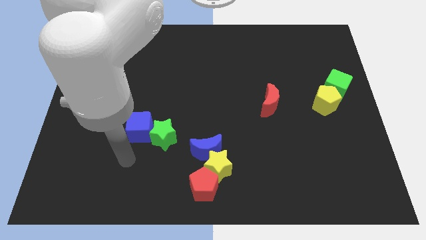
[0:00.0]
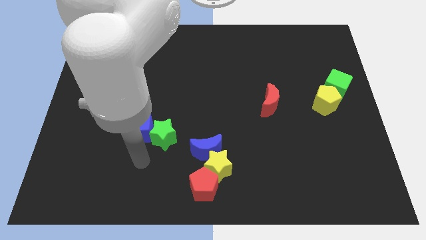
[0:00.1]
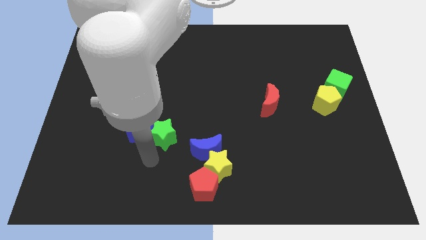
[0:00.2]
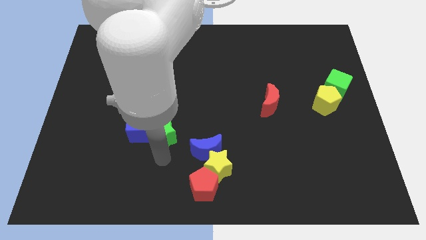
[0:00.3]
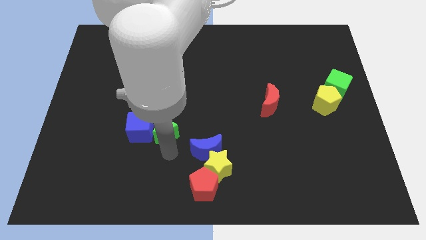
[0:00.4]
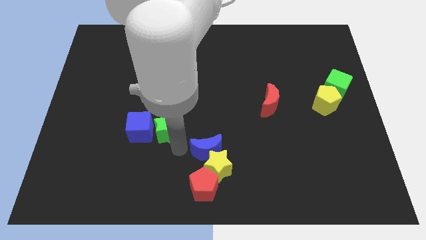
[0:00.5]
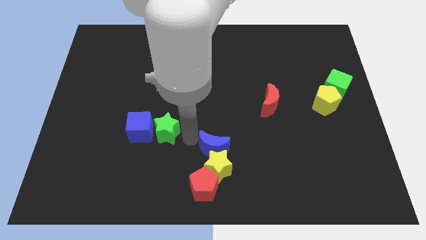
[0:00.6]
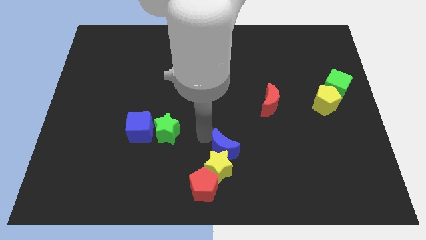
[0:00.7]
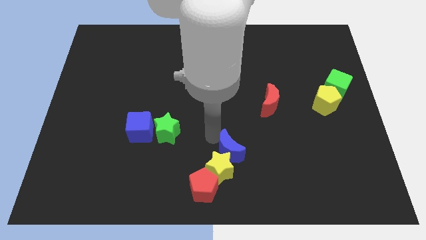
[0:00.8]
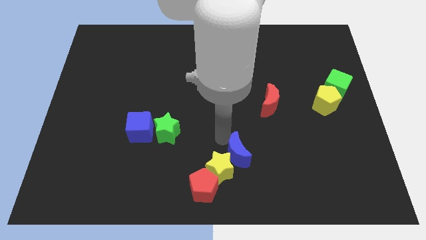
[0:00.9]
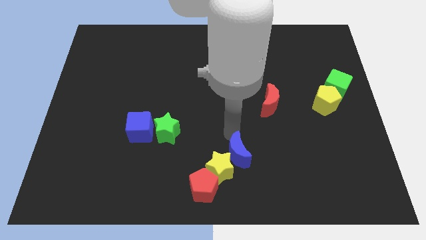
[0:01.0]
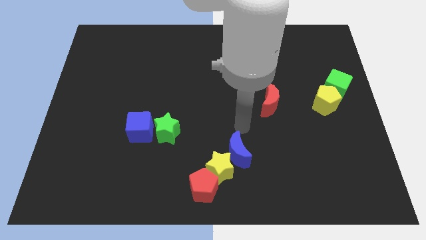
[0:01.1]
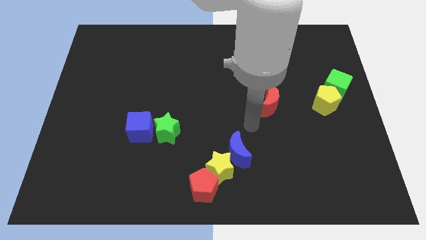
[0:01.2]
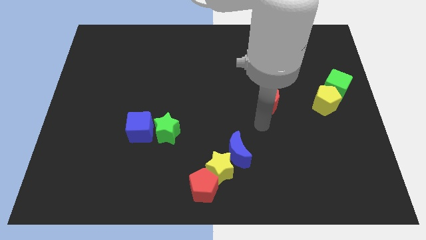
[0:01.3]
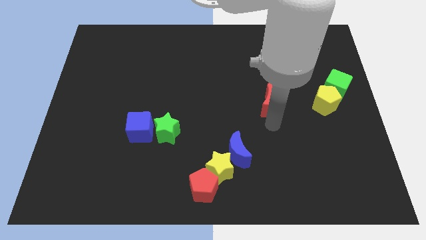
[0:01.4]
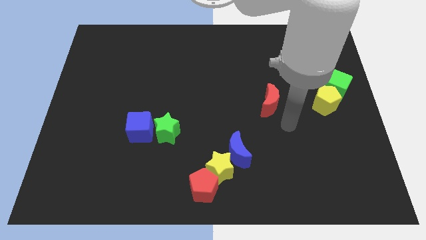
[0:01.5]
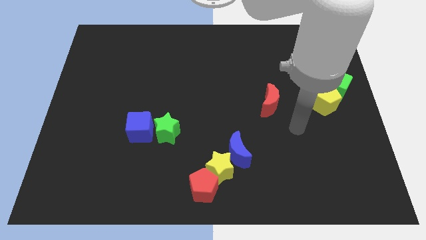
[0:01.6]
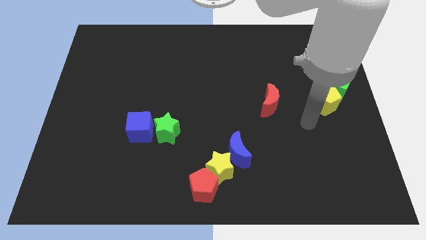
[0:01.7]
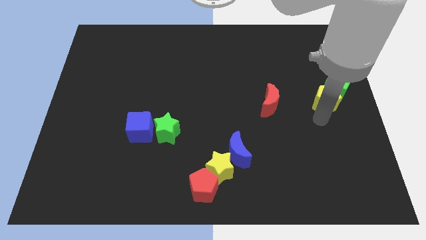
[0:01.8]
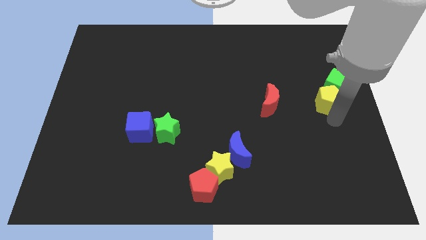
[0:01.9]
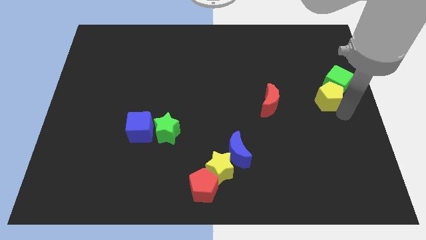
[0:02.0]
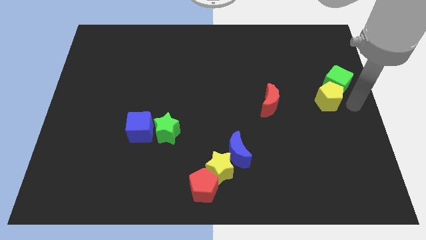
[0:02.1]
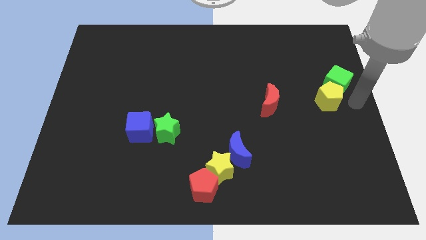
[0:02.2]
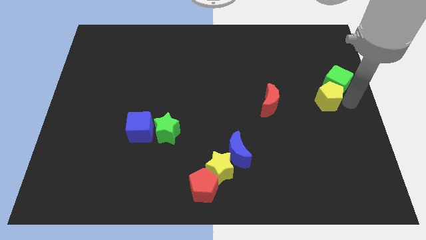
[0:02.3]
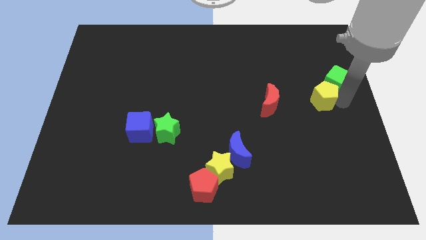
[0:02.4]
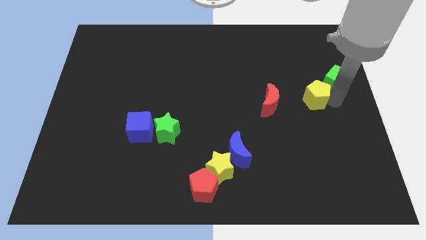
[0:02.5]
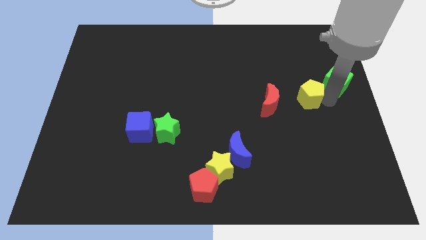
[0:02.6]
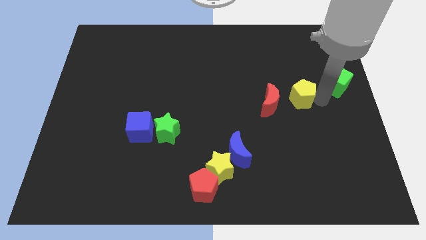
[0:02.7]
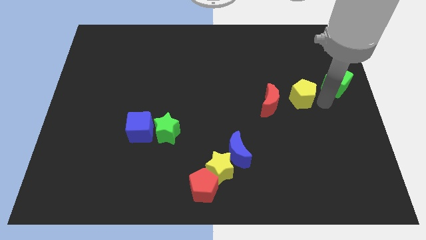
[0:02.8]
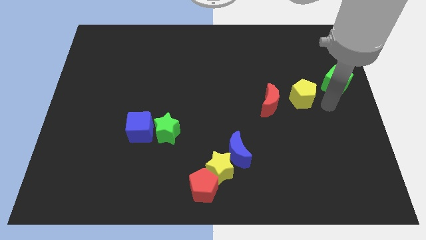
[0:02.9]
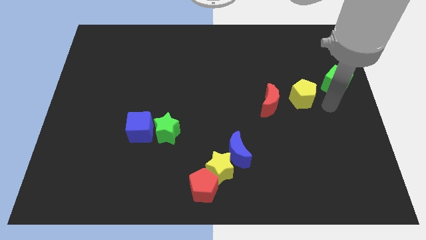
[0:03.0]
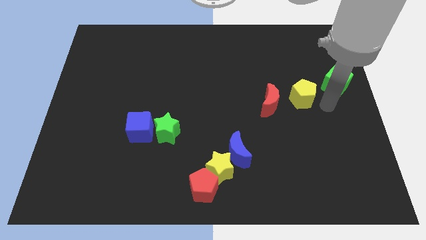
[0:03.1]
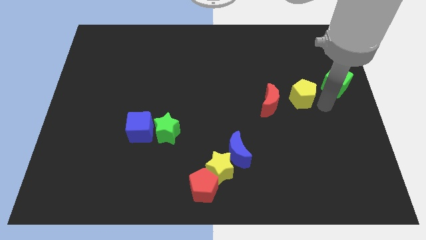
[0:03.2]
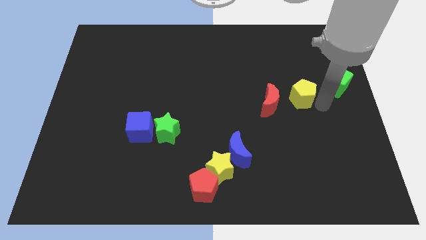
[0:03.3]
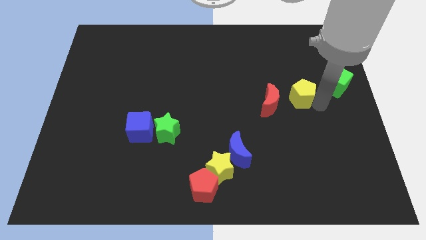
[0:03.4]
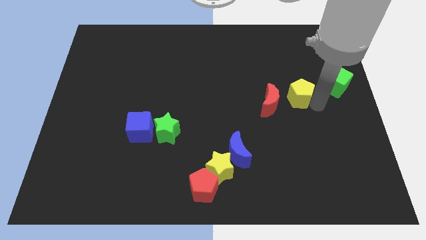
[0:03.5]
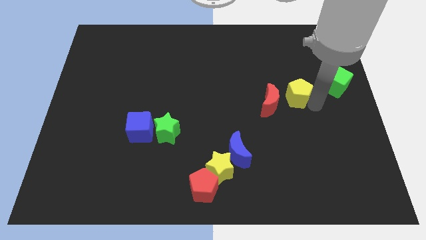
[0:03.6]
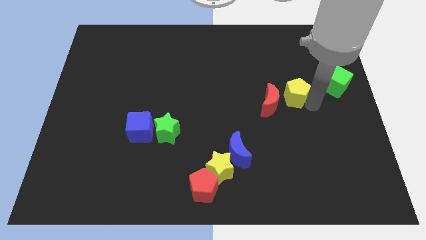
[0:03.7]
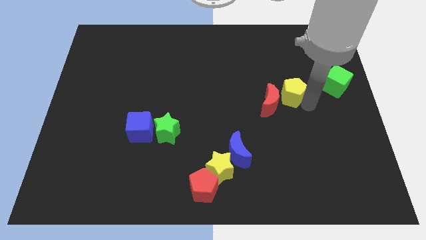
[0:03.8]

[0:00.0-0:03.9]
push the yellow pentagon left somewhat

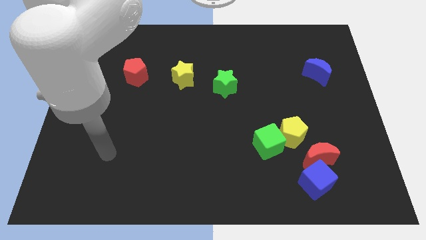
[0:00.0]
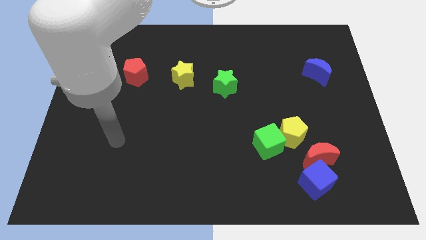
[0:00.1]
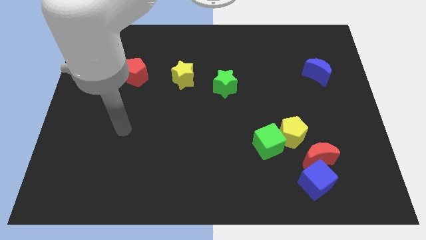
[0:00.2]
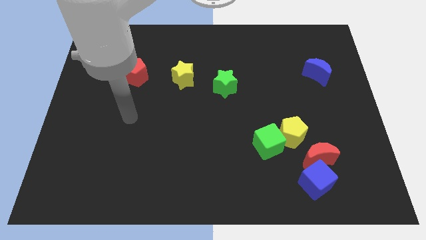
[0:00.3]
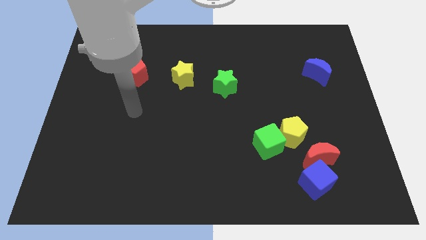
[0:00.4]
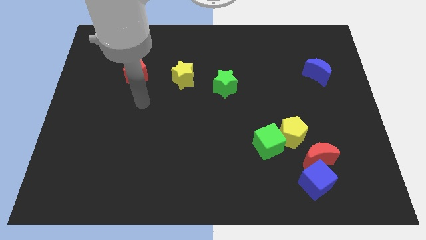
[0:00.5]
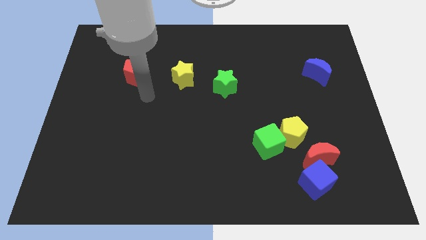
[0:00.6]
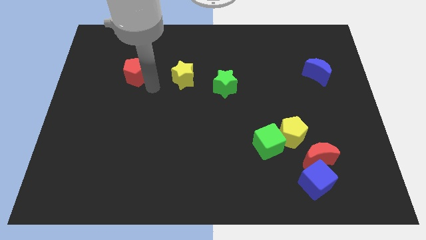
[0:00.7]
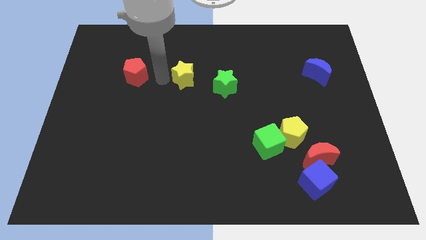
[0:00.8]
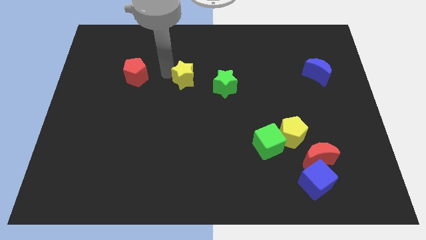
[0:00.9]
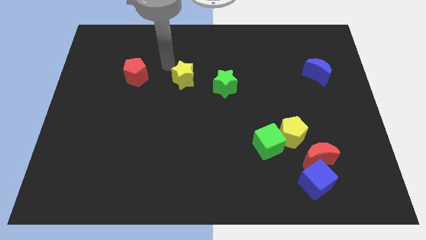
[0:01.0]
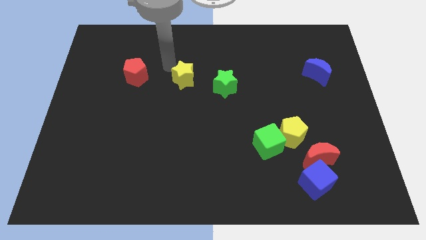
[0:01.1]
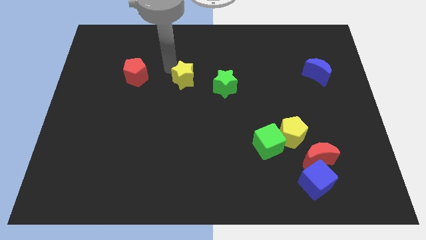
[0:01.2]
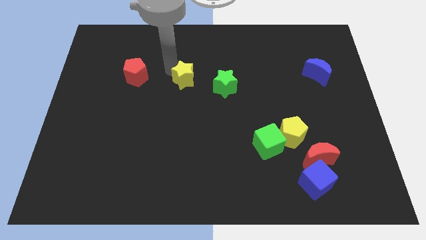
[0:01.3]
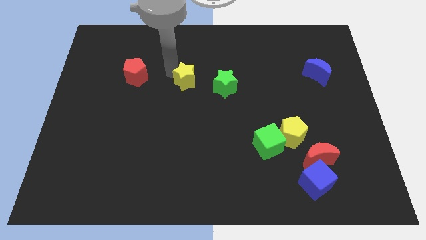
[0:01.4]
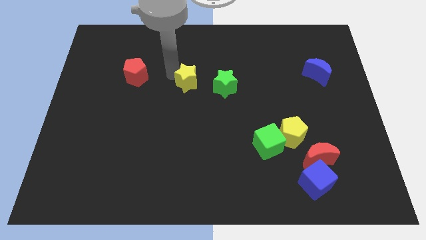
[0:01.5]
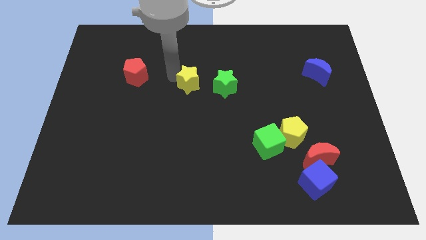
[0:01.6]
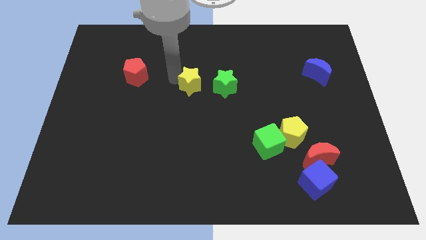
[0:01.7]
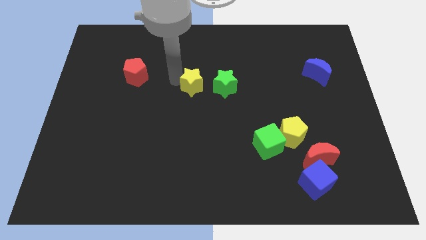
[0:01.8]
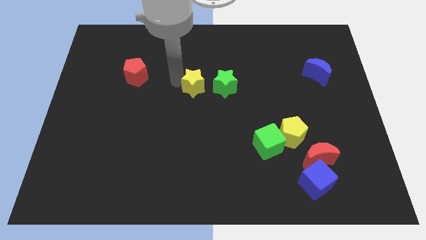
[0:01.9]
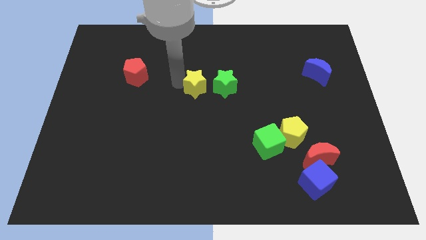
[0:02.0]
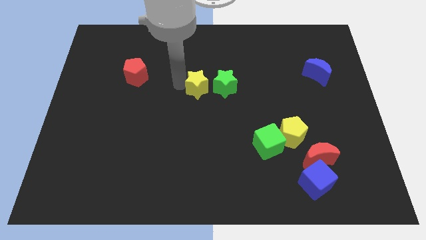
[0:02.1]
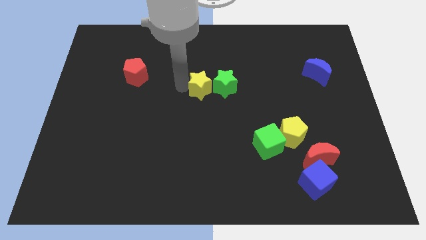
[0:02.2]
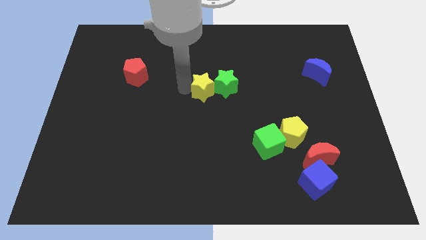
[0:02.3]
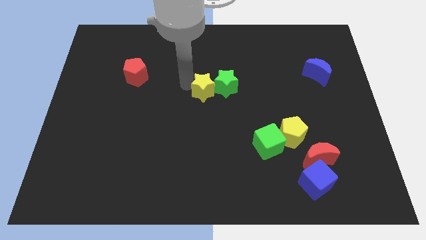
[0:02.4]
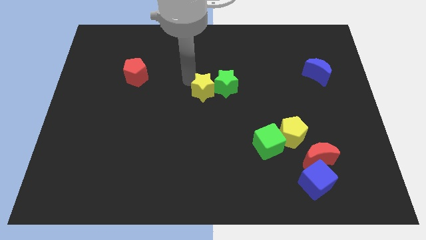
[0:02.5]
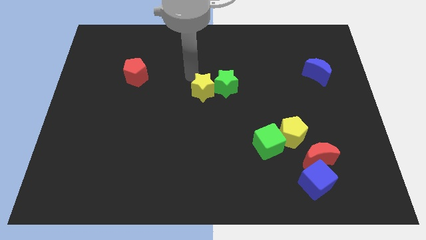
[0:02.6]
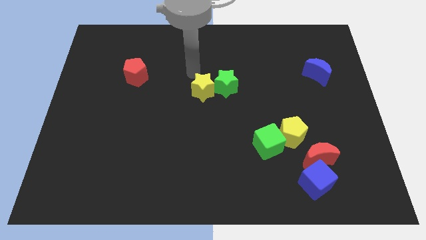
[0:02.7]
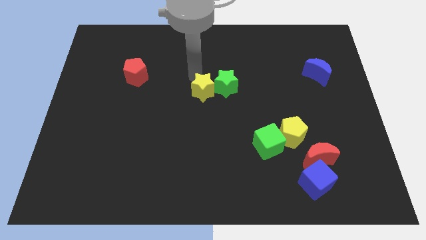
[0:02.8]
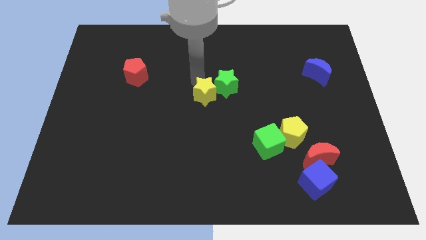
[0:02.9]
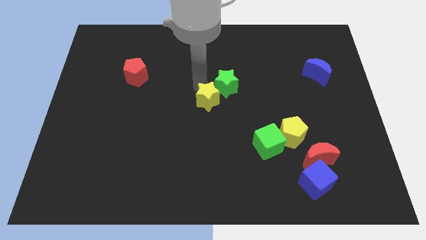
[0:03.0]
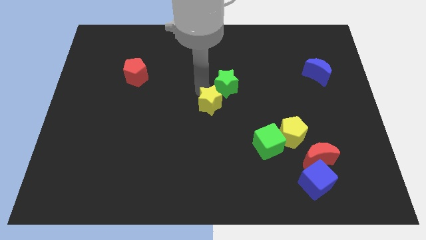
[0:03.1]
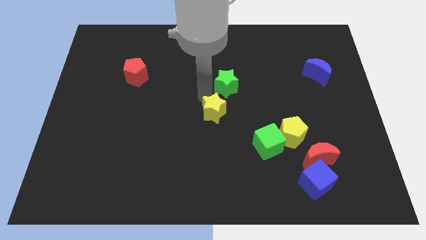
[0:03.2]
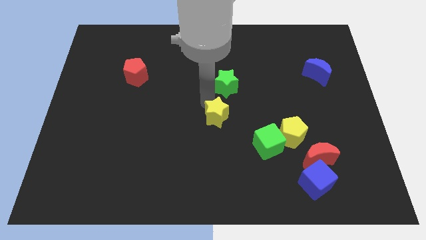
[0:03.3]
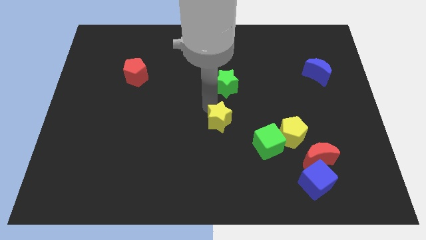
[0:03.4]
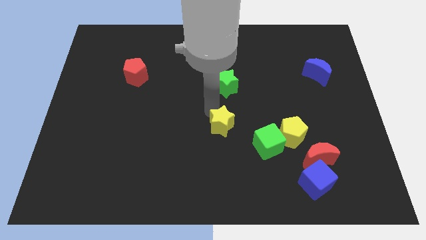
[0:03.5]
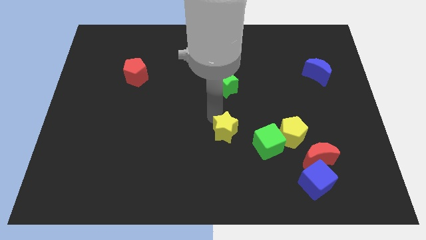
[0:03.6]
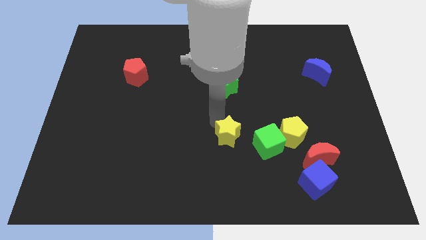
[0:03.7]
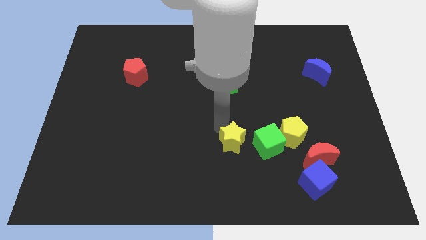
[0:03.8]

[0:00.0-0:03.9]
slide the yellow star diagonally down and right
